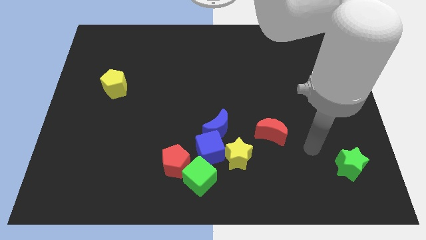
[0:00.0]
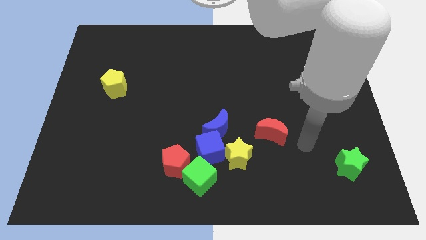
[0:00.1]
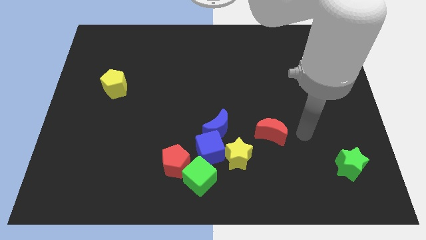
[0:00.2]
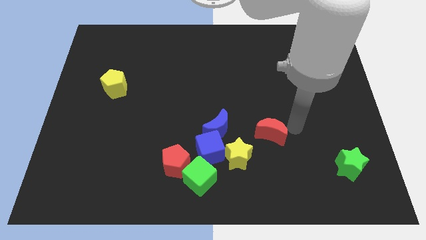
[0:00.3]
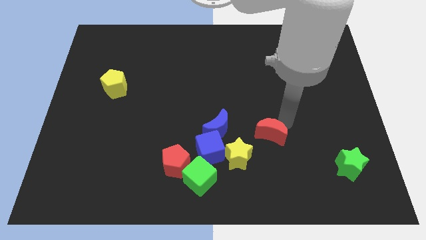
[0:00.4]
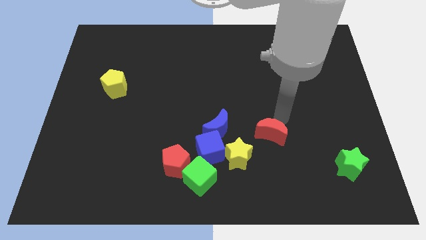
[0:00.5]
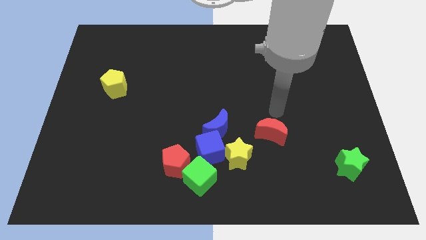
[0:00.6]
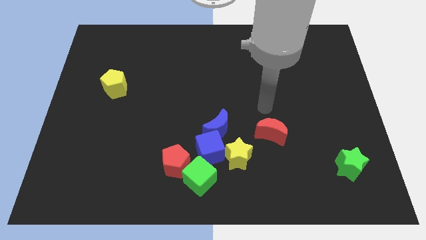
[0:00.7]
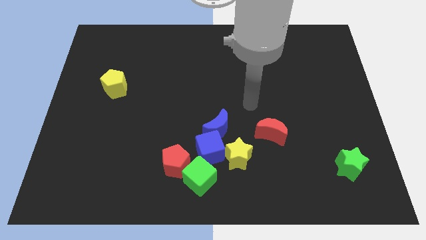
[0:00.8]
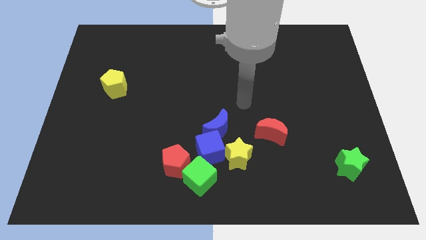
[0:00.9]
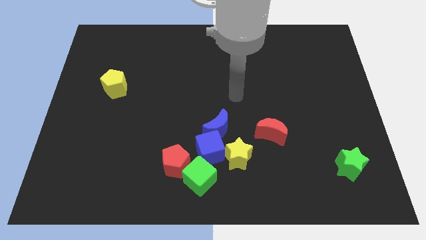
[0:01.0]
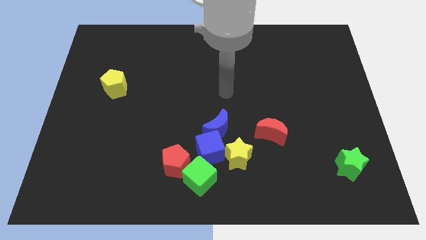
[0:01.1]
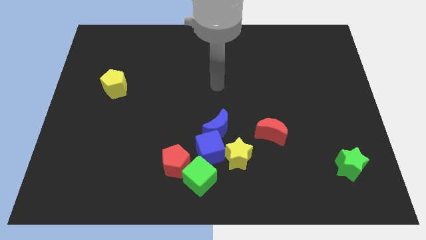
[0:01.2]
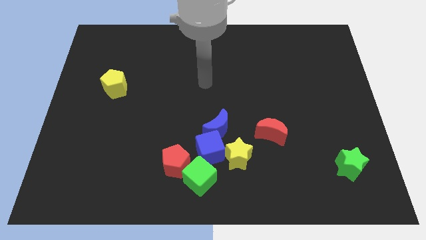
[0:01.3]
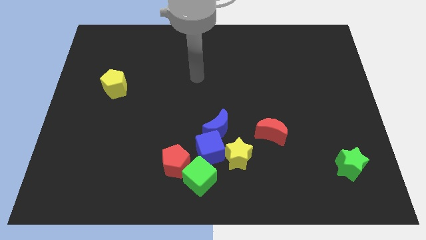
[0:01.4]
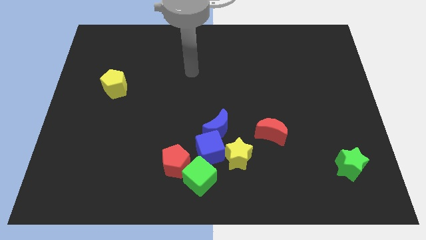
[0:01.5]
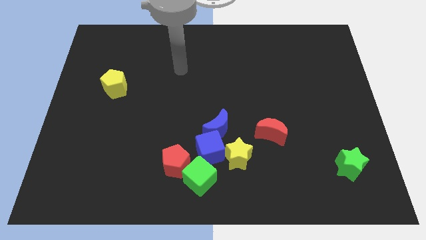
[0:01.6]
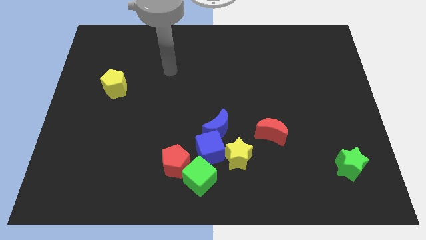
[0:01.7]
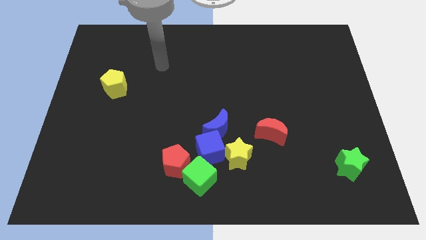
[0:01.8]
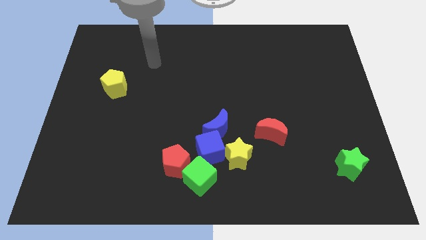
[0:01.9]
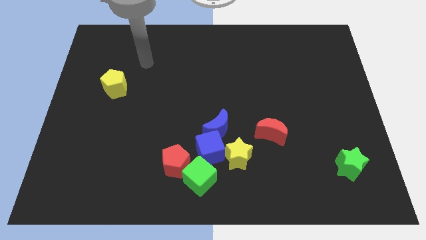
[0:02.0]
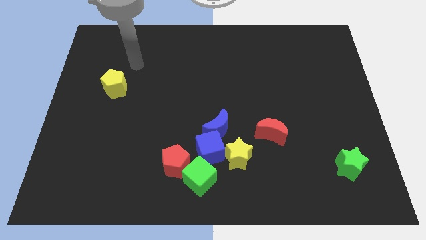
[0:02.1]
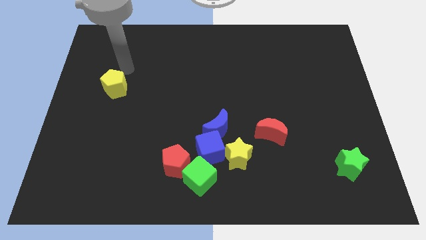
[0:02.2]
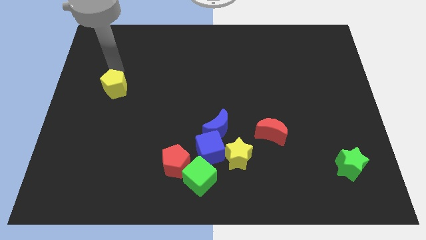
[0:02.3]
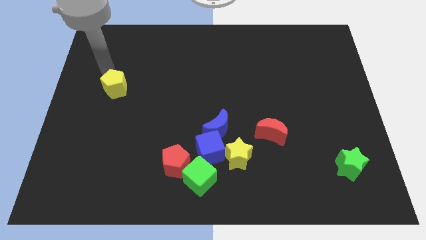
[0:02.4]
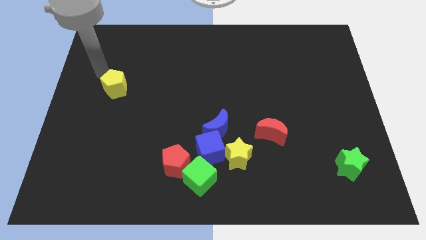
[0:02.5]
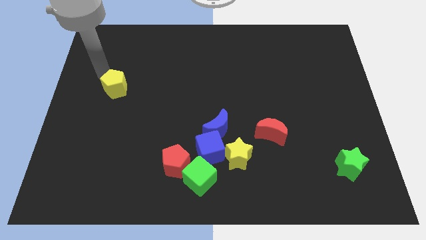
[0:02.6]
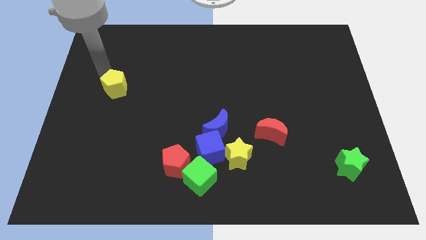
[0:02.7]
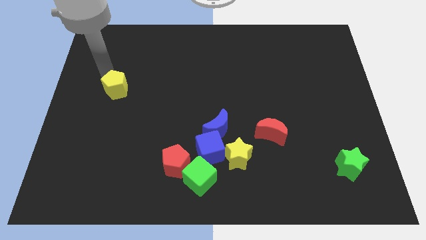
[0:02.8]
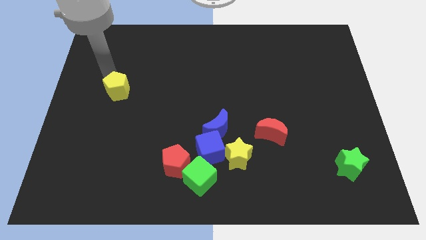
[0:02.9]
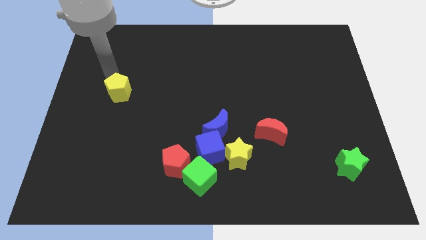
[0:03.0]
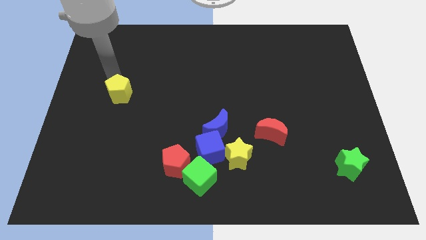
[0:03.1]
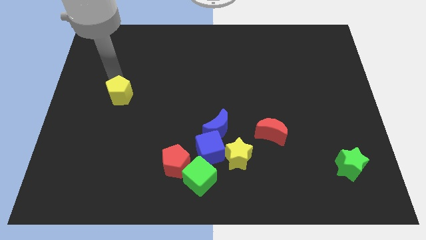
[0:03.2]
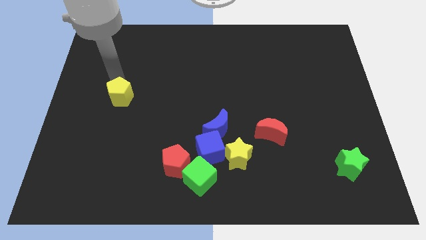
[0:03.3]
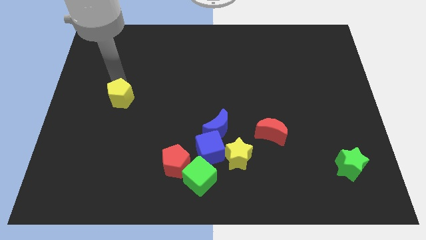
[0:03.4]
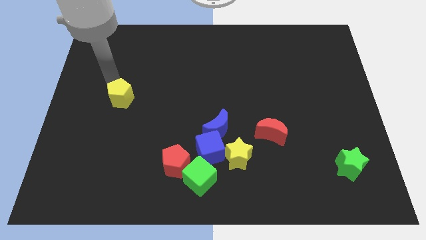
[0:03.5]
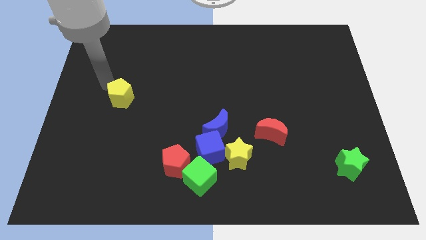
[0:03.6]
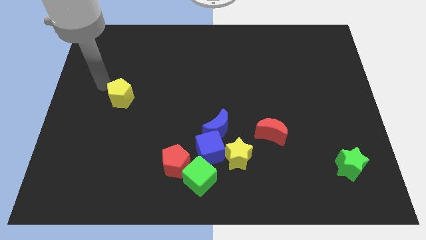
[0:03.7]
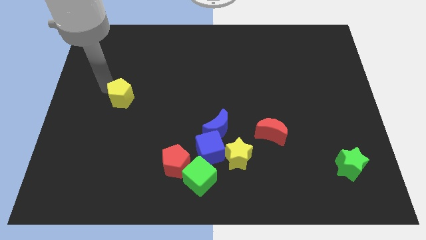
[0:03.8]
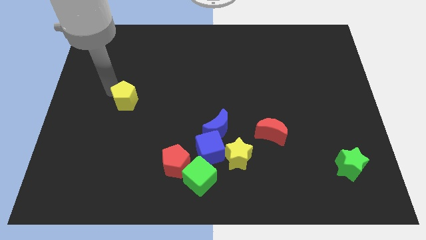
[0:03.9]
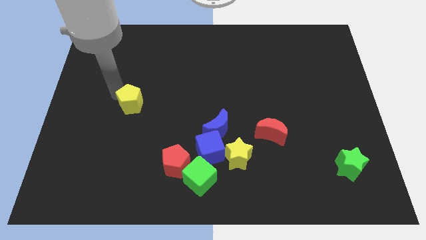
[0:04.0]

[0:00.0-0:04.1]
slide the yellow pentagon downwards and then to the right a bit

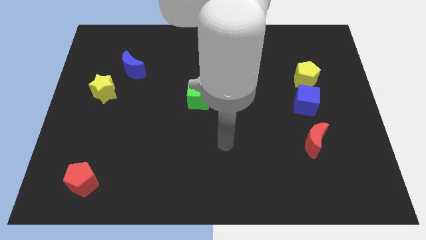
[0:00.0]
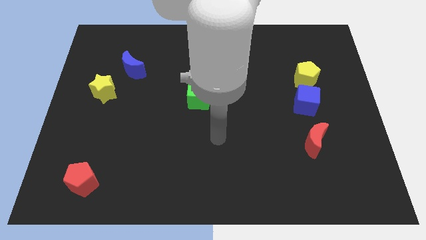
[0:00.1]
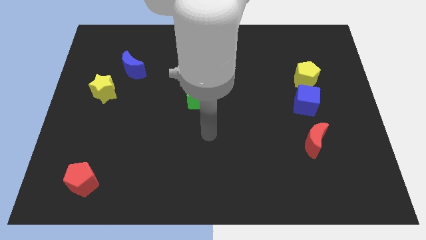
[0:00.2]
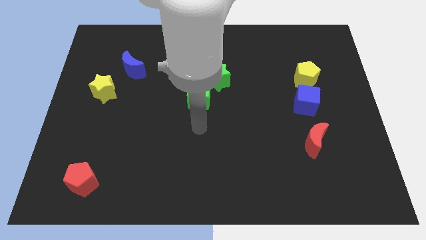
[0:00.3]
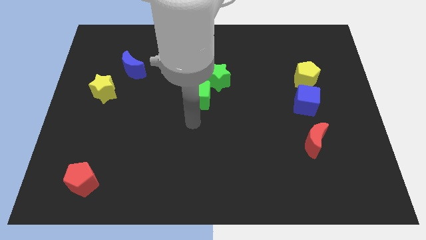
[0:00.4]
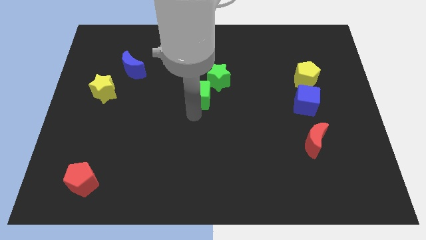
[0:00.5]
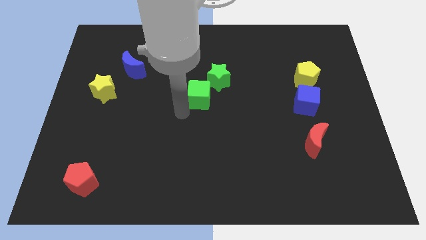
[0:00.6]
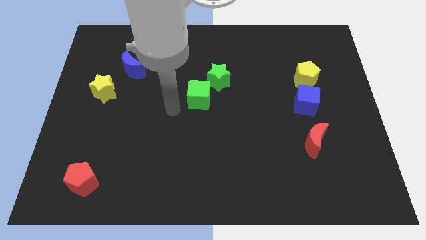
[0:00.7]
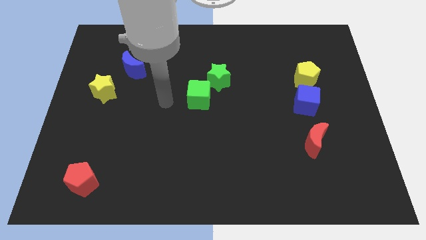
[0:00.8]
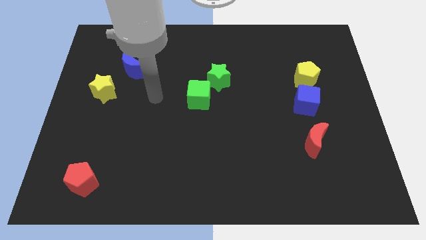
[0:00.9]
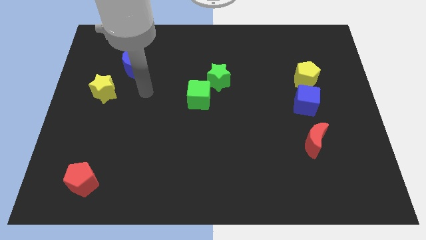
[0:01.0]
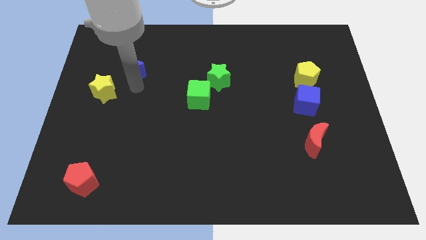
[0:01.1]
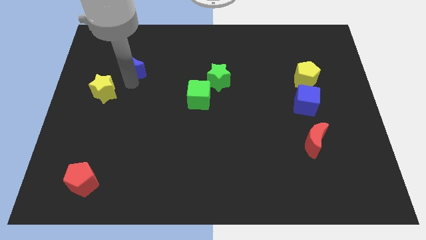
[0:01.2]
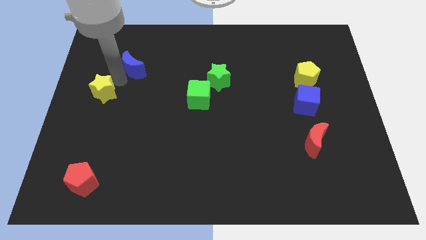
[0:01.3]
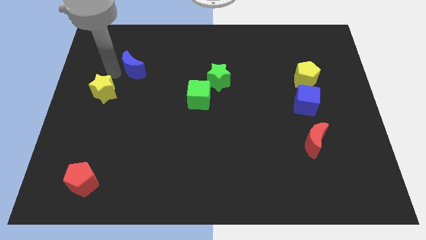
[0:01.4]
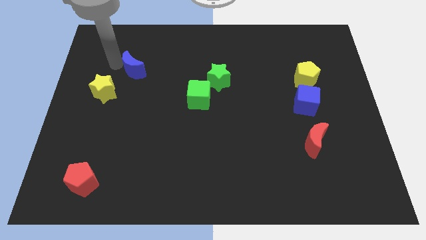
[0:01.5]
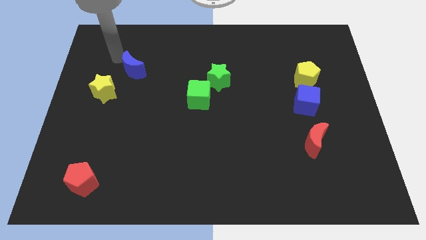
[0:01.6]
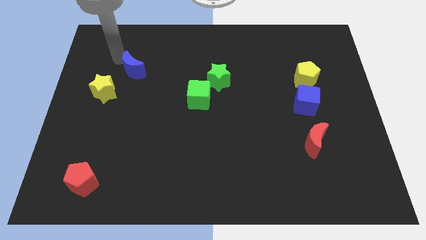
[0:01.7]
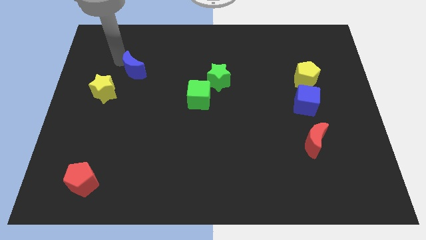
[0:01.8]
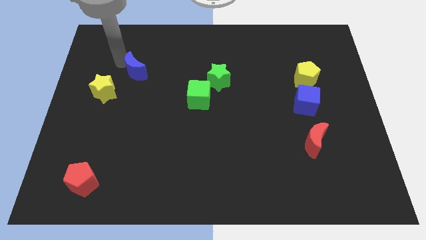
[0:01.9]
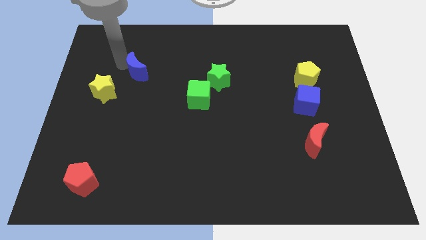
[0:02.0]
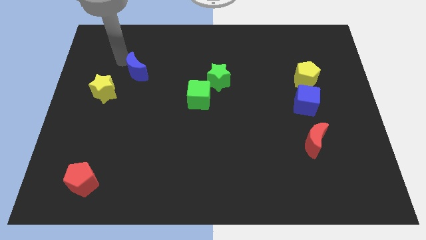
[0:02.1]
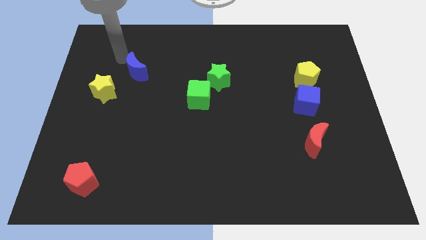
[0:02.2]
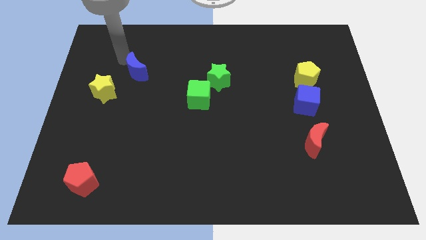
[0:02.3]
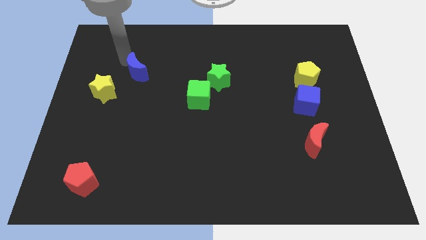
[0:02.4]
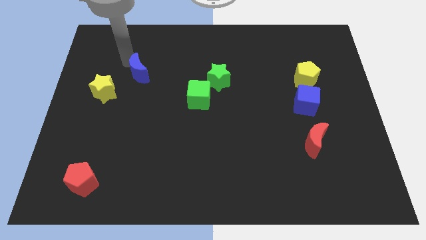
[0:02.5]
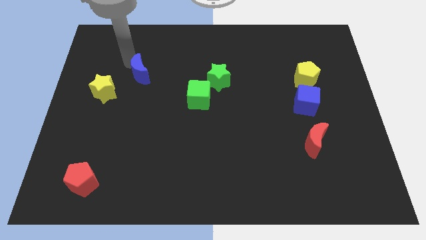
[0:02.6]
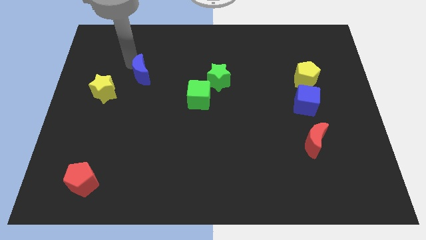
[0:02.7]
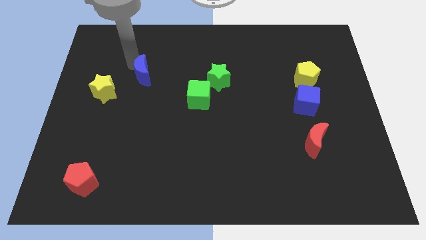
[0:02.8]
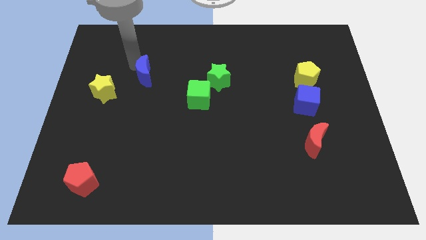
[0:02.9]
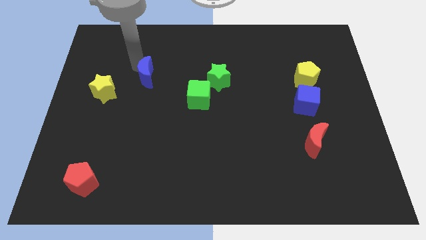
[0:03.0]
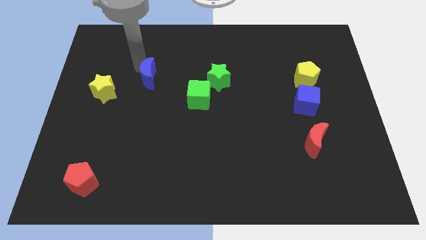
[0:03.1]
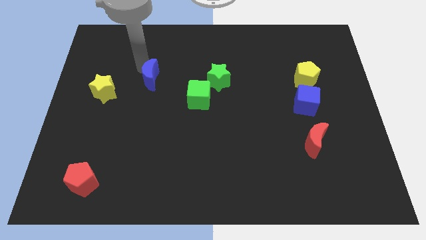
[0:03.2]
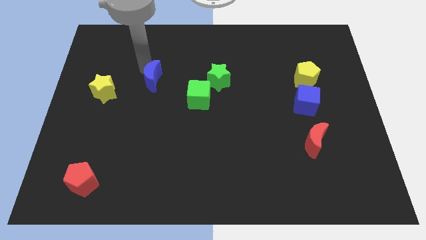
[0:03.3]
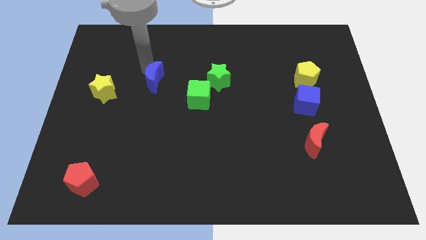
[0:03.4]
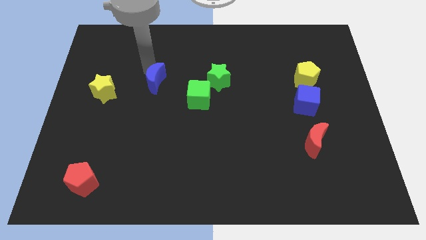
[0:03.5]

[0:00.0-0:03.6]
slide the blue moon down and right diagonally slightly

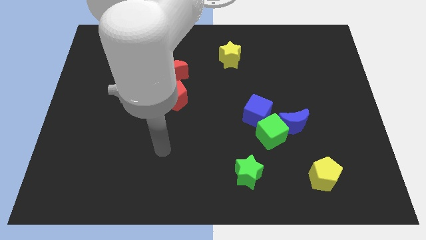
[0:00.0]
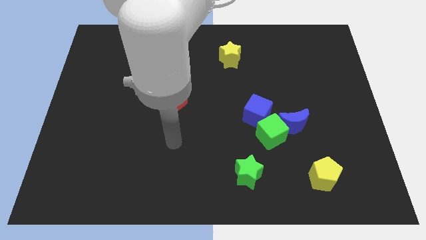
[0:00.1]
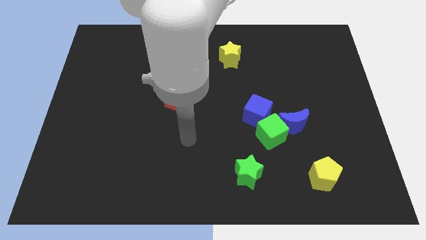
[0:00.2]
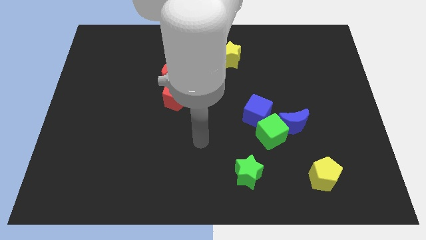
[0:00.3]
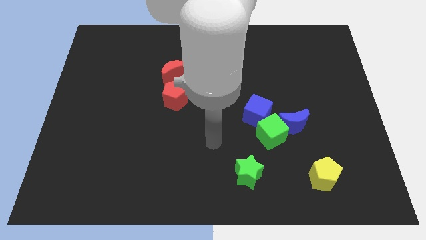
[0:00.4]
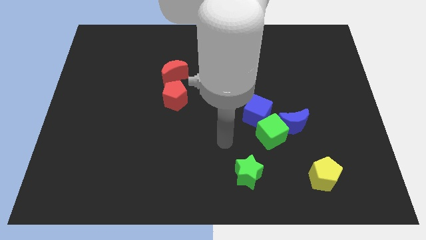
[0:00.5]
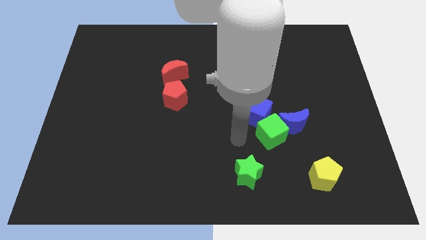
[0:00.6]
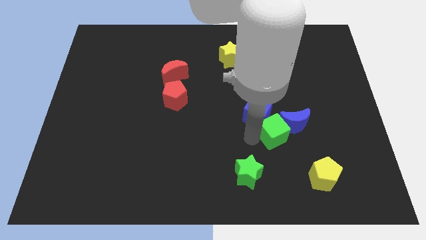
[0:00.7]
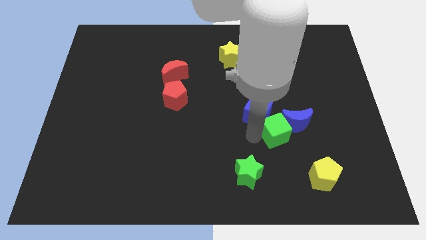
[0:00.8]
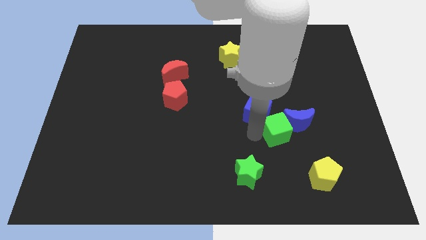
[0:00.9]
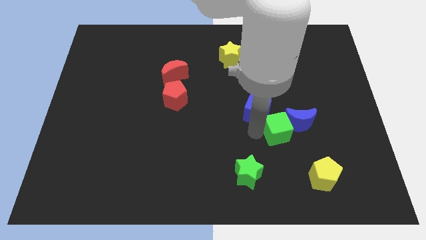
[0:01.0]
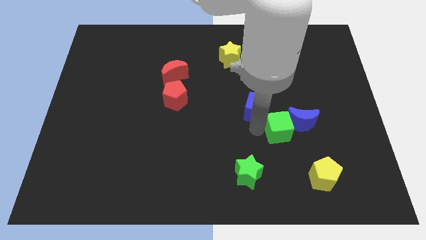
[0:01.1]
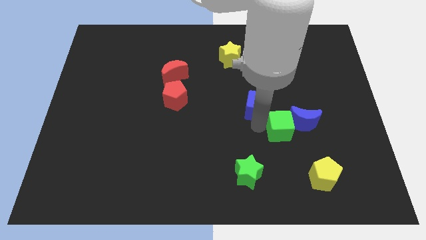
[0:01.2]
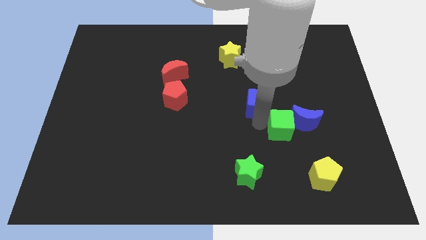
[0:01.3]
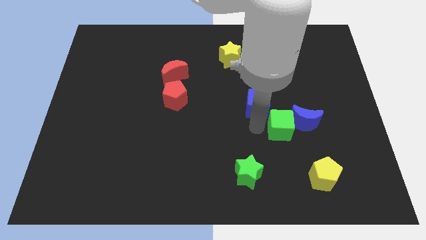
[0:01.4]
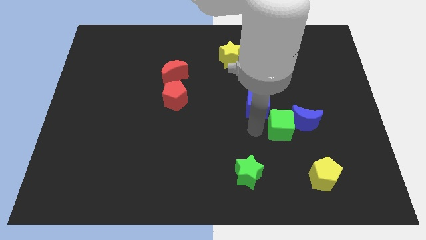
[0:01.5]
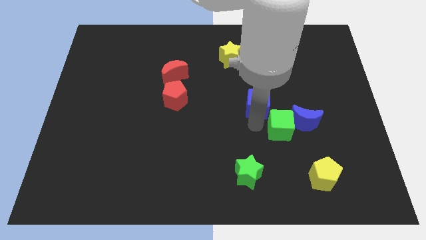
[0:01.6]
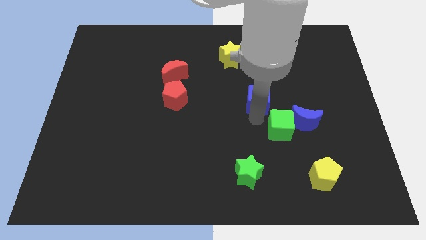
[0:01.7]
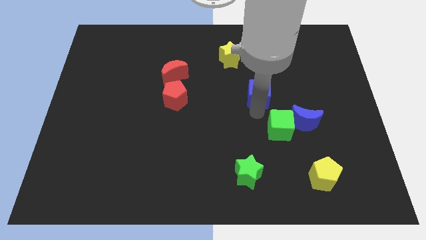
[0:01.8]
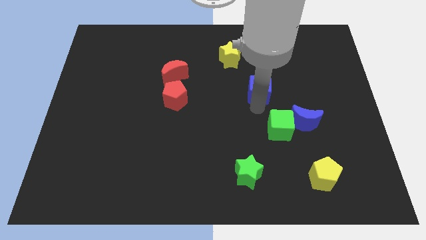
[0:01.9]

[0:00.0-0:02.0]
slightly slide the blue cube up
